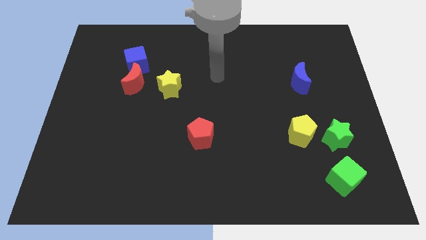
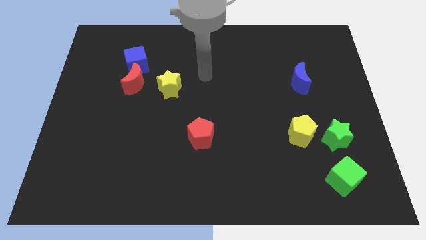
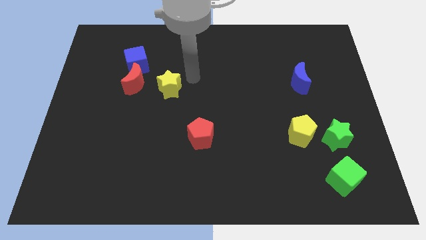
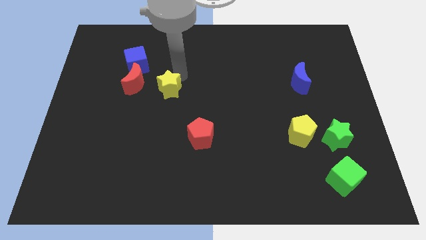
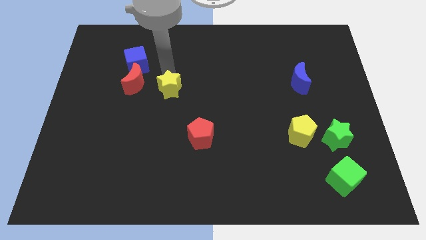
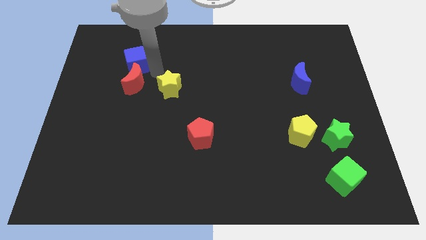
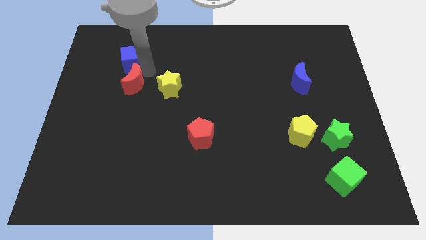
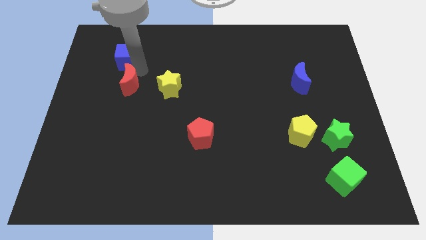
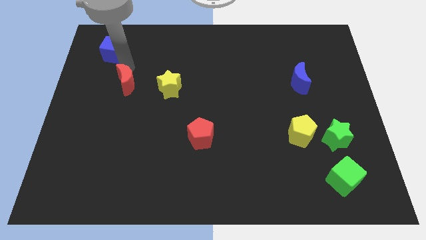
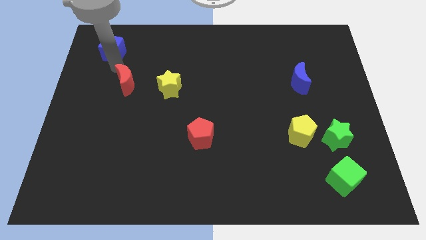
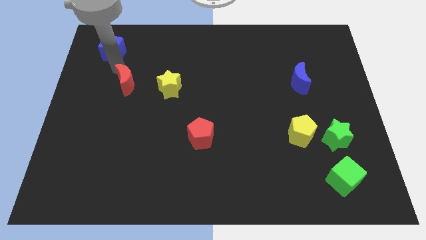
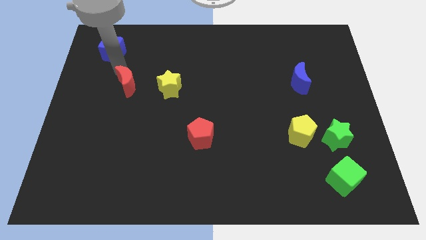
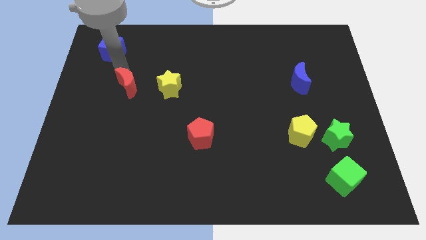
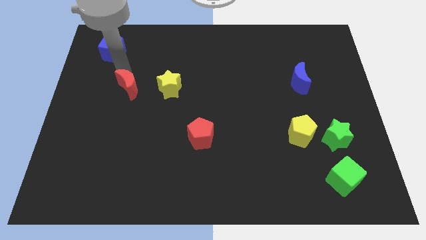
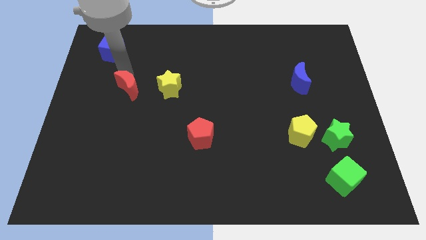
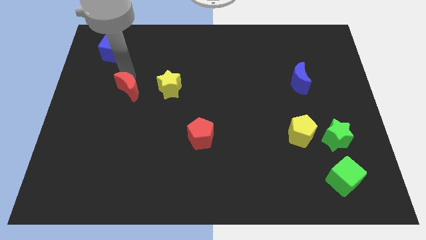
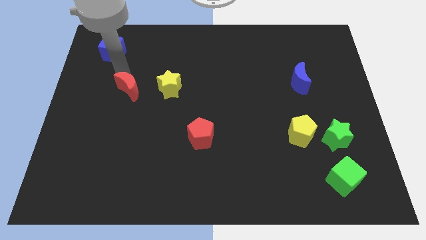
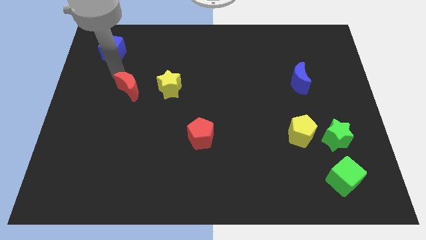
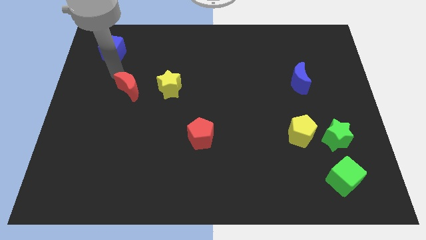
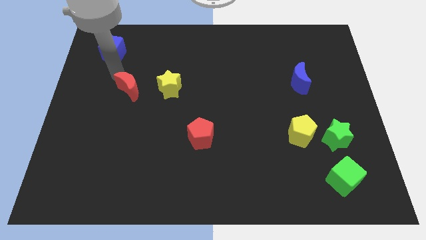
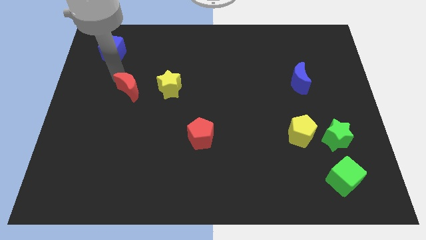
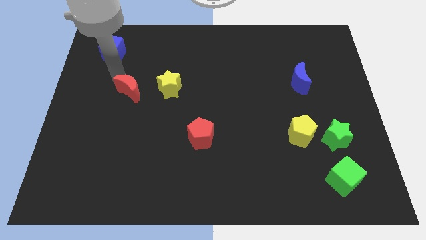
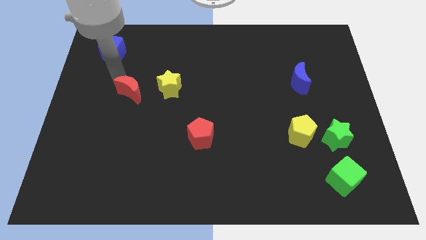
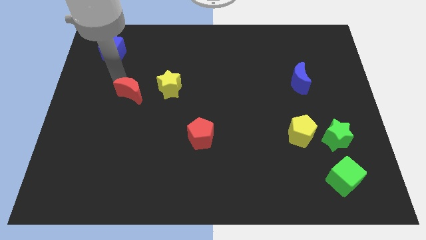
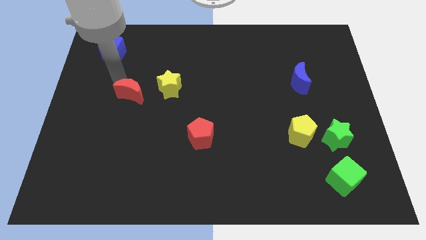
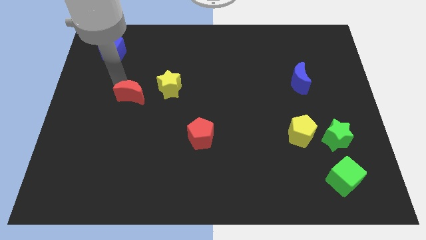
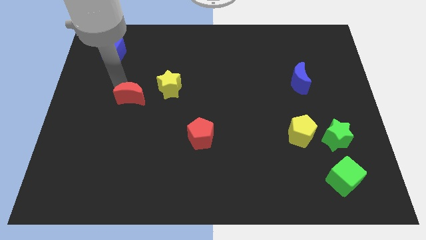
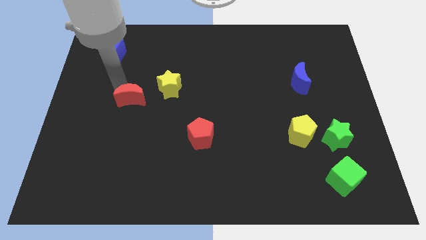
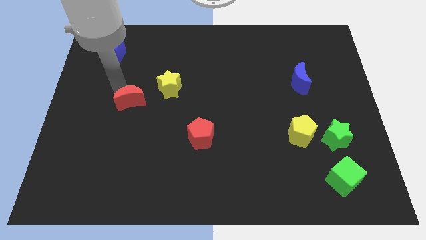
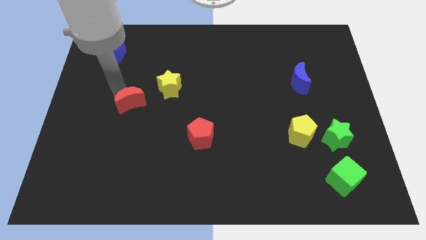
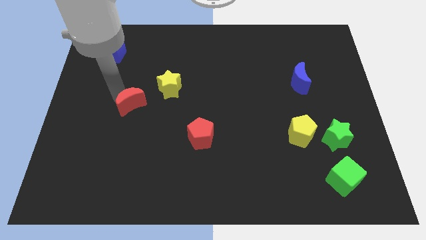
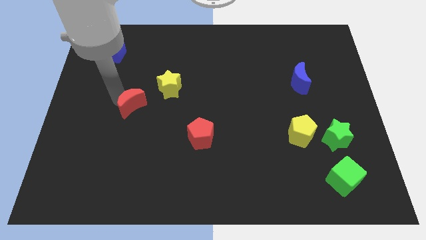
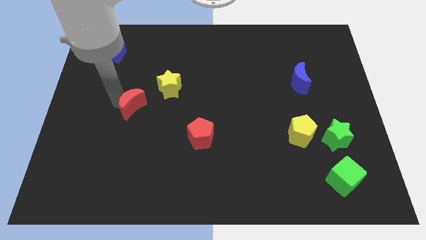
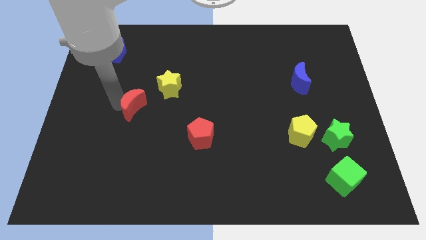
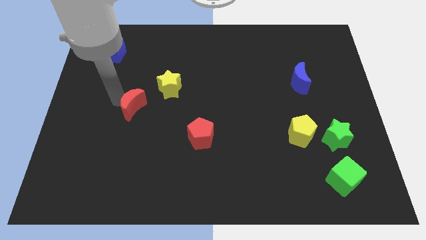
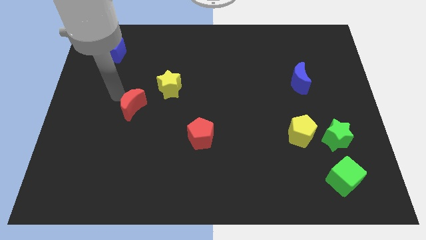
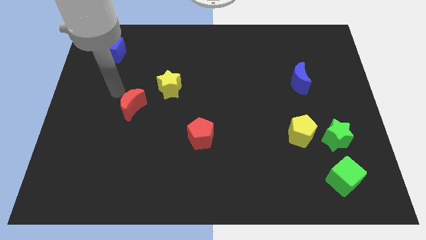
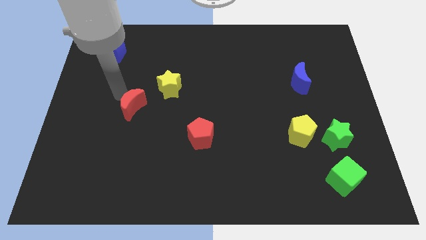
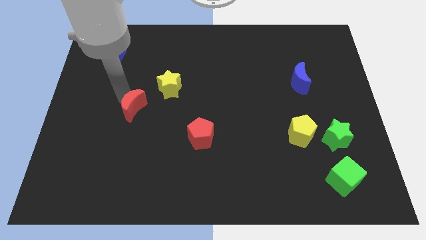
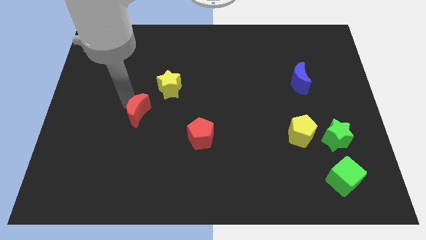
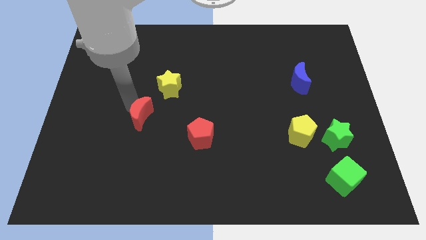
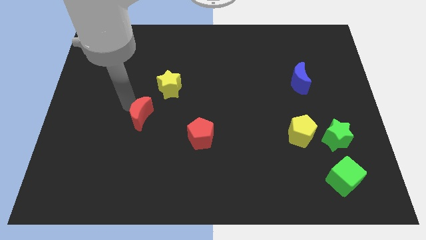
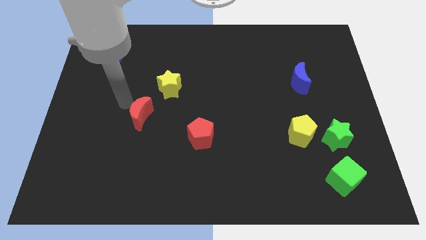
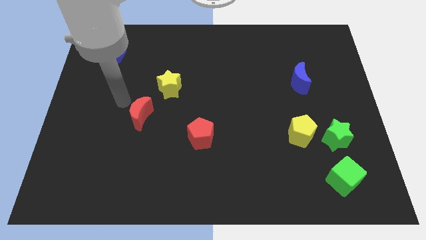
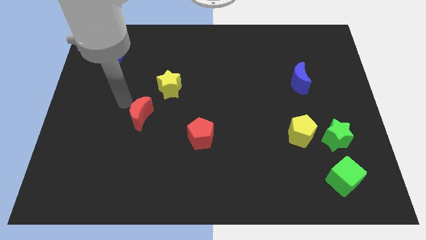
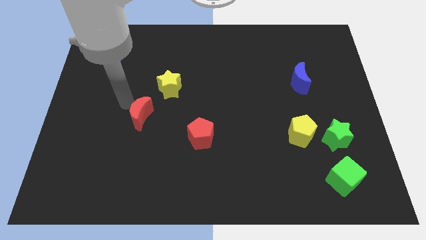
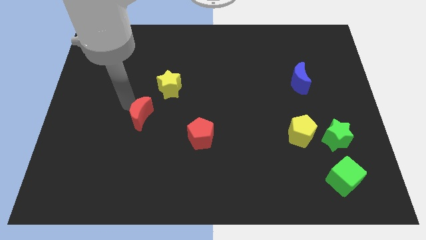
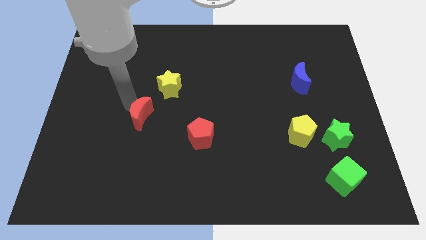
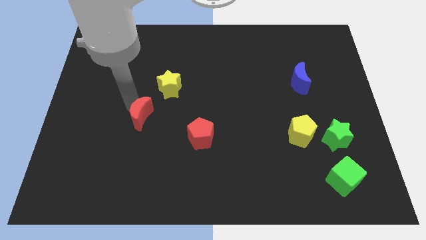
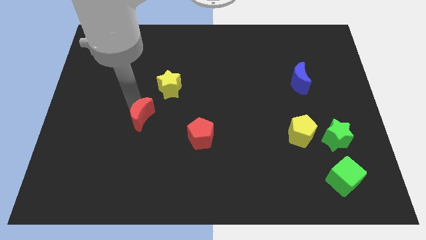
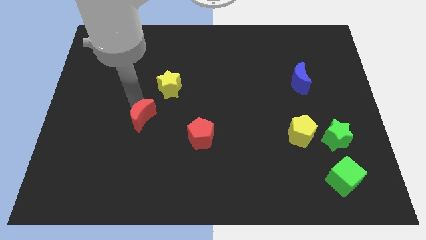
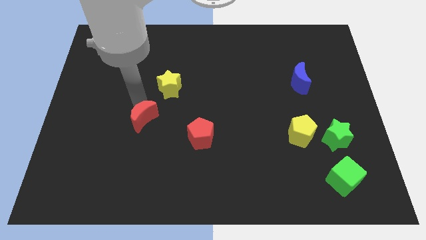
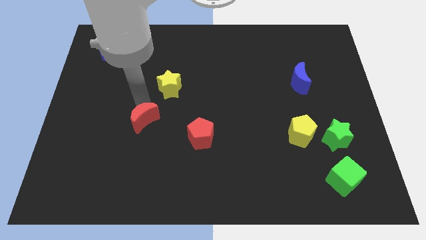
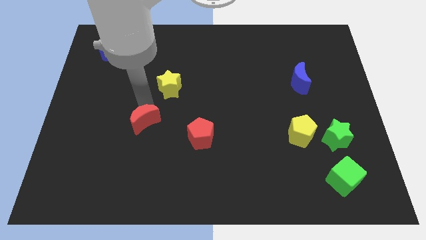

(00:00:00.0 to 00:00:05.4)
move the red moon just left of the red pentagon

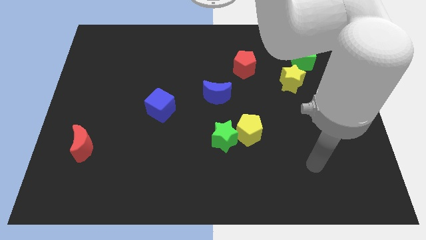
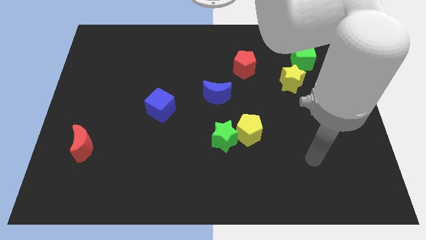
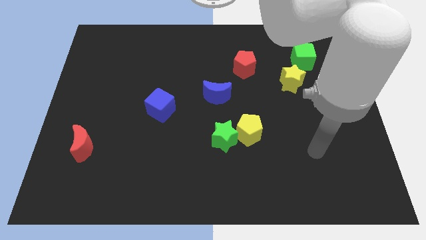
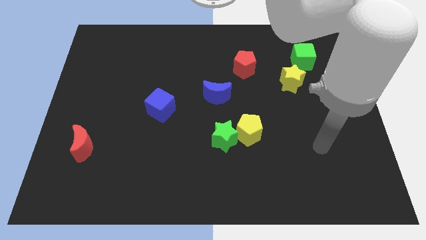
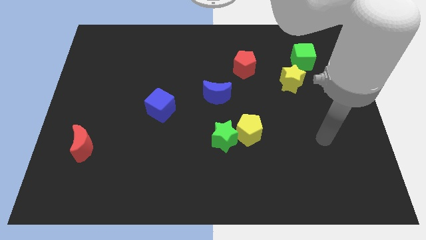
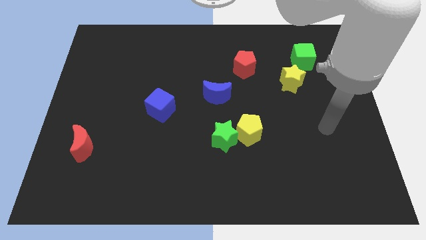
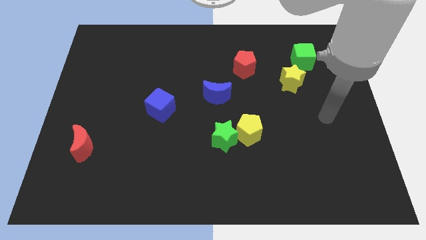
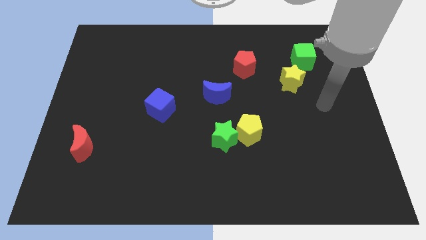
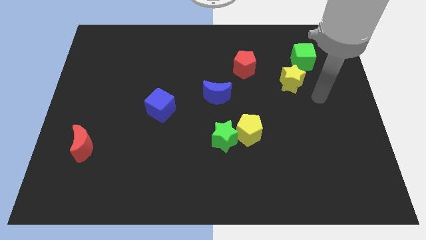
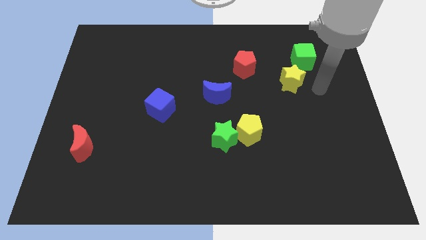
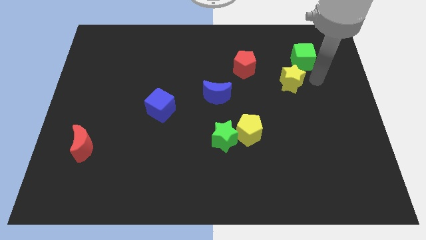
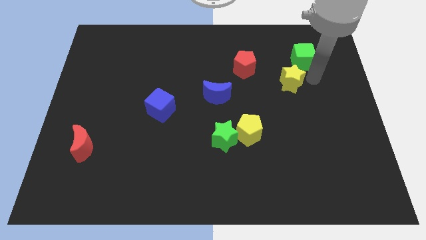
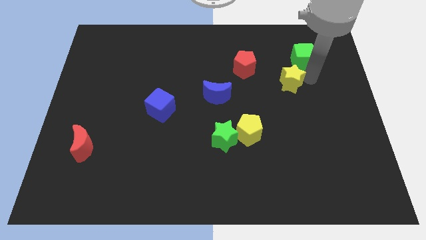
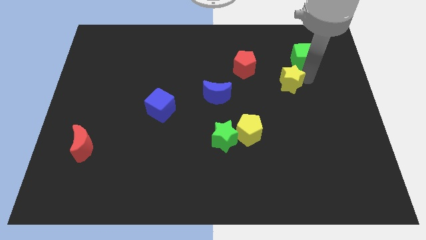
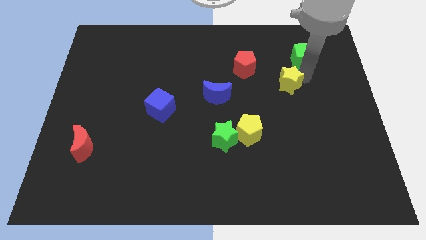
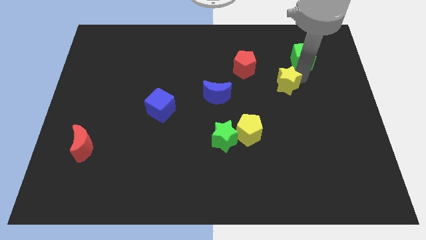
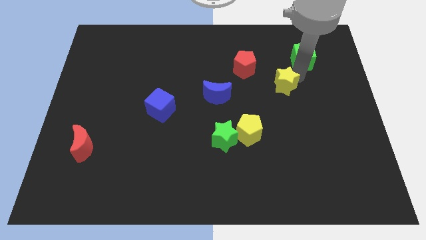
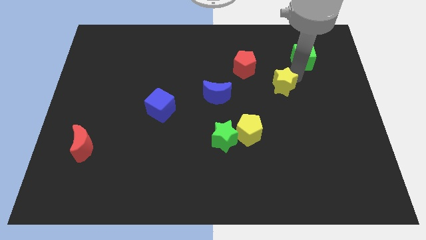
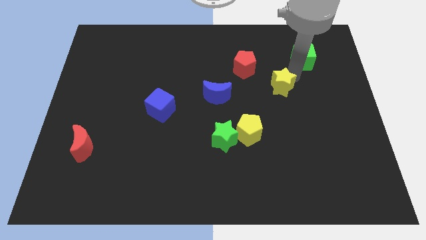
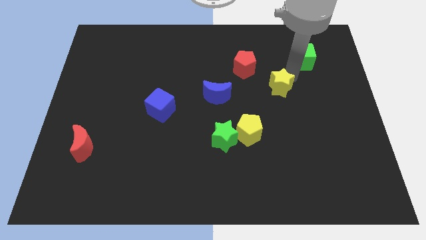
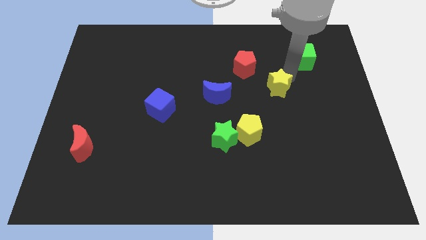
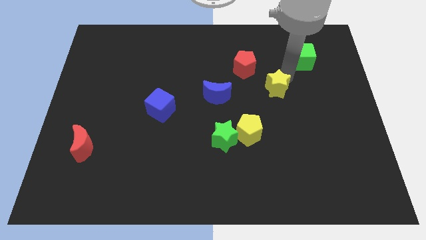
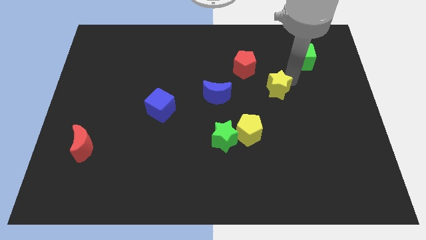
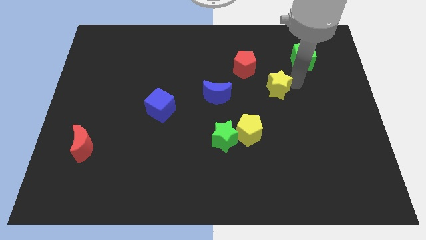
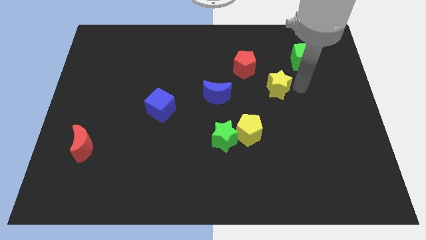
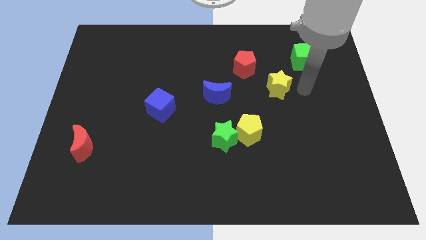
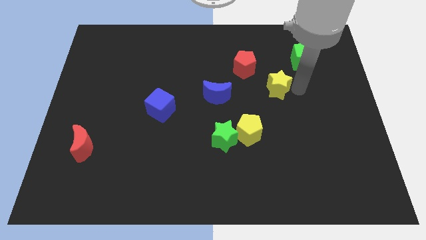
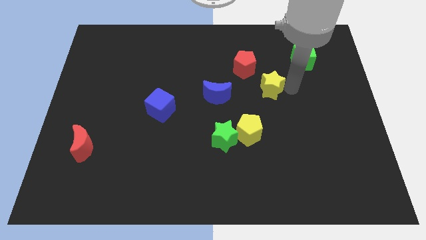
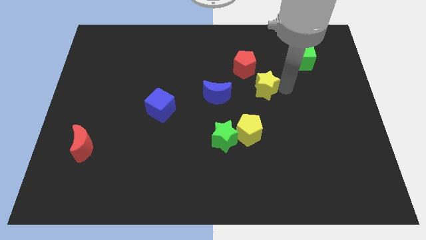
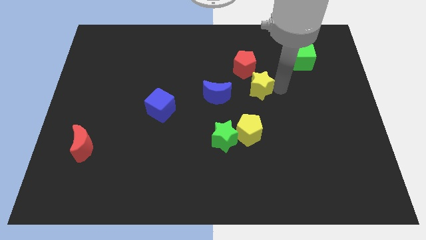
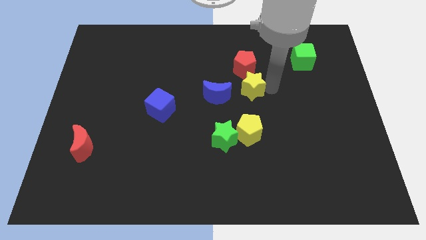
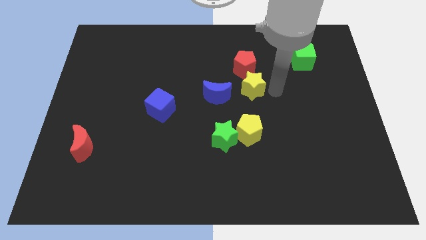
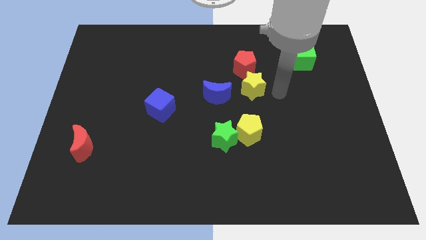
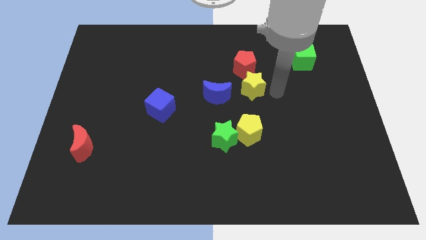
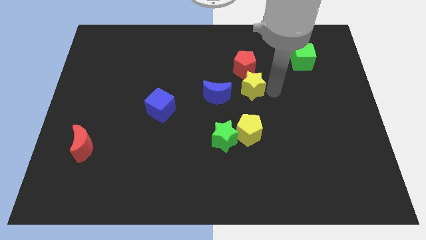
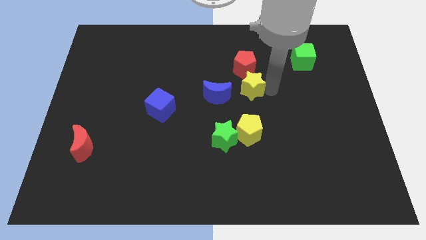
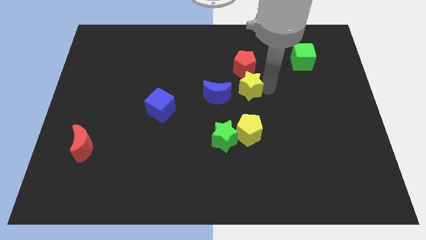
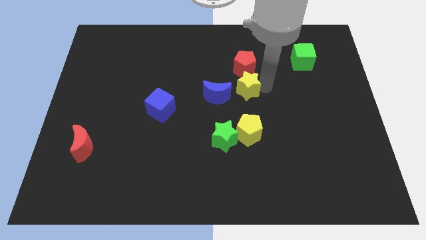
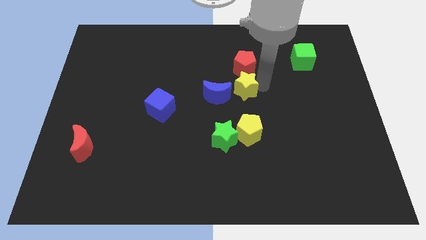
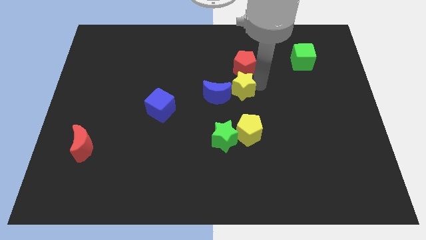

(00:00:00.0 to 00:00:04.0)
put the yellow star to the bottom left of the red pentagon
